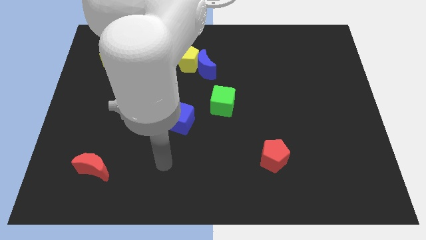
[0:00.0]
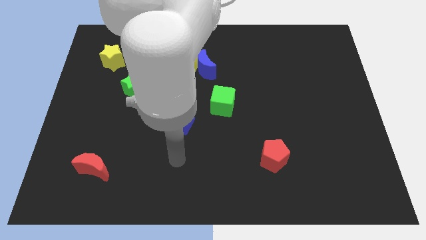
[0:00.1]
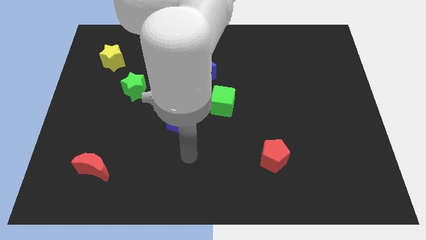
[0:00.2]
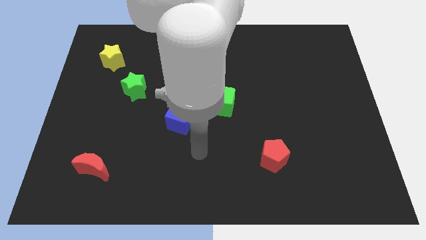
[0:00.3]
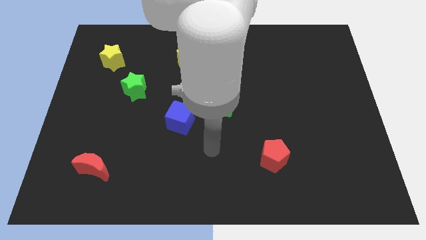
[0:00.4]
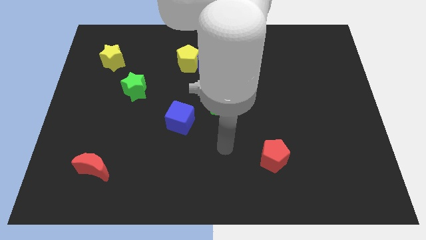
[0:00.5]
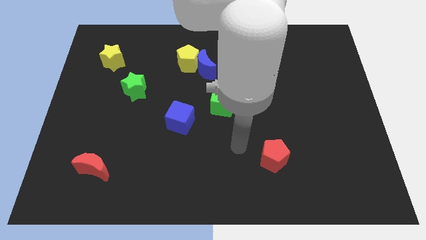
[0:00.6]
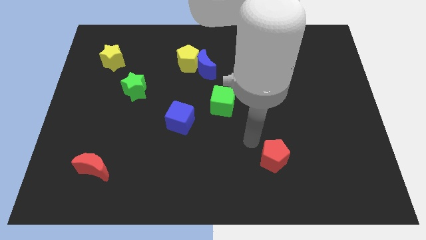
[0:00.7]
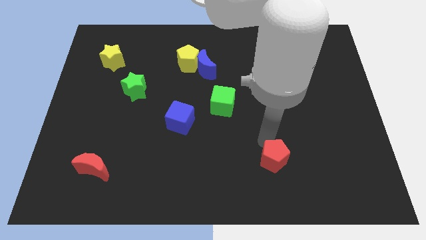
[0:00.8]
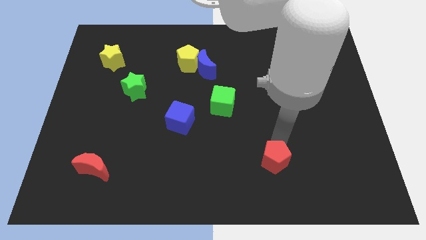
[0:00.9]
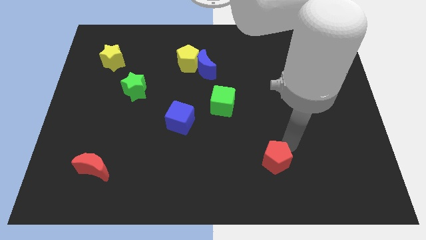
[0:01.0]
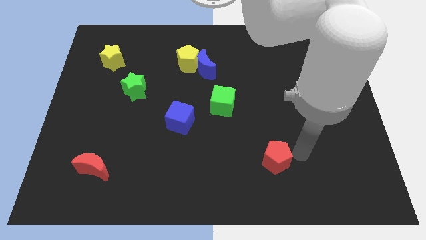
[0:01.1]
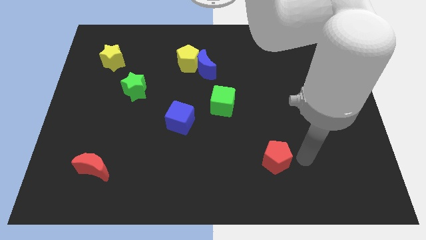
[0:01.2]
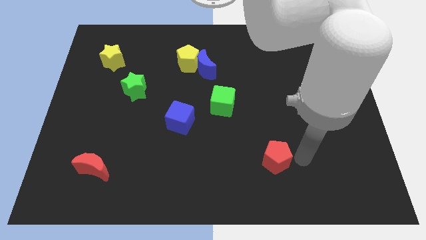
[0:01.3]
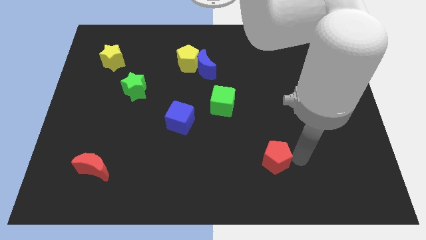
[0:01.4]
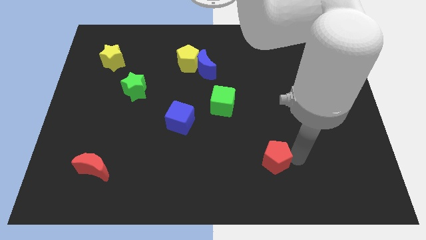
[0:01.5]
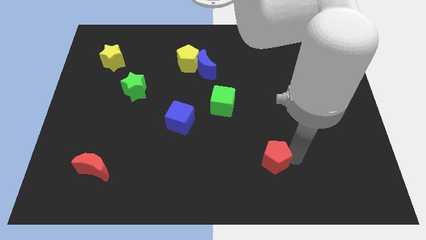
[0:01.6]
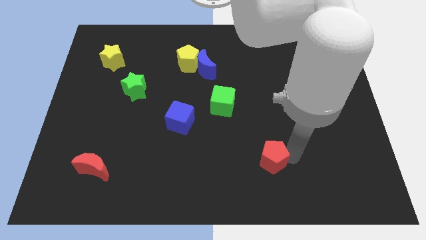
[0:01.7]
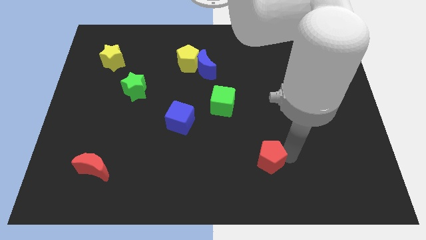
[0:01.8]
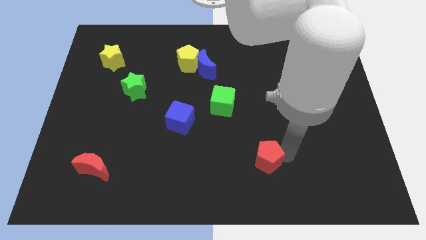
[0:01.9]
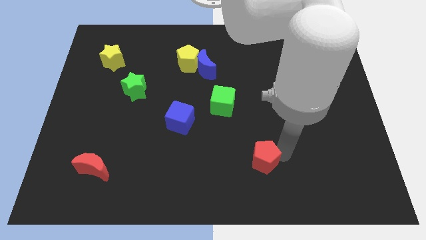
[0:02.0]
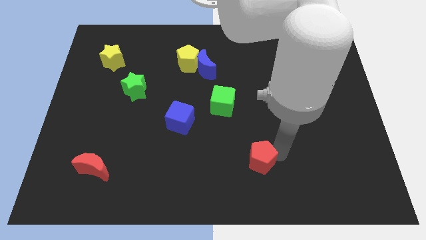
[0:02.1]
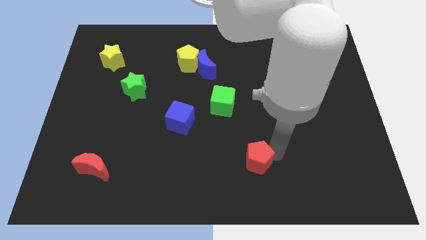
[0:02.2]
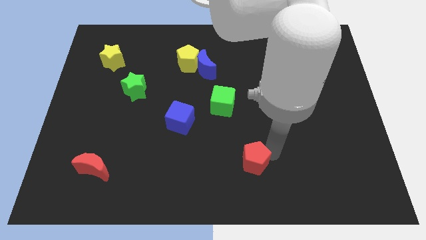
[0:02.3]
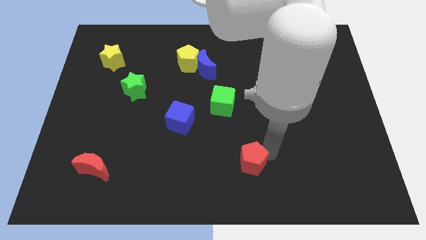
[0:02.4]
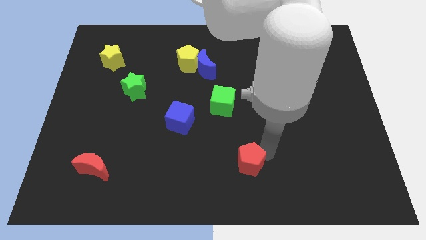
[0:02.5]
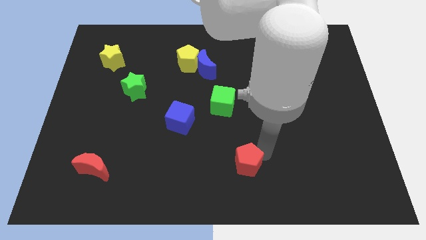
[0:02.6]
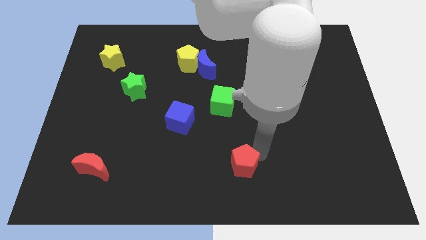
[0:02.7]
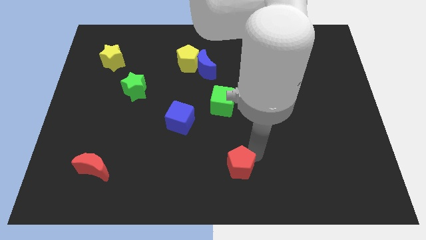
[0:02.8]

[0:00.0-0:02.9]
move the red pentagon to the left a little bit

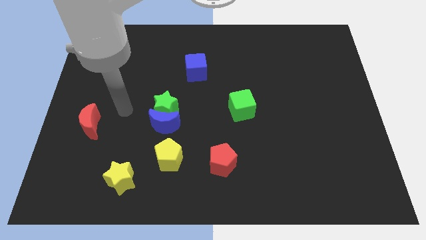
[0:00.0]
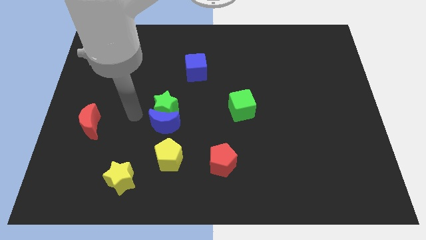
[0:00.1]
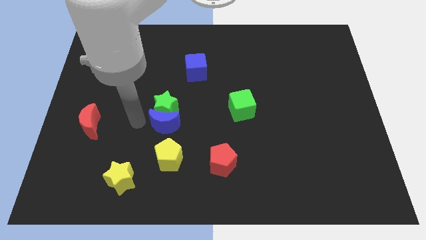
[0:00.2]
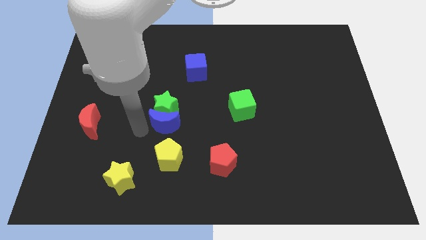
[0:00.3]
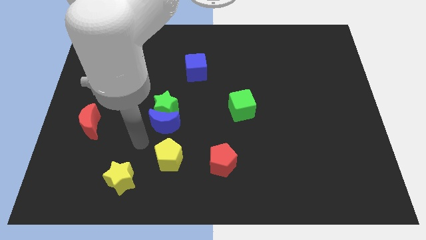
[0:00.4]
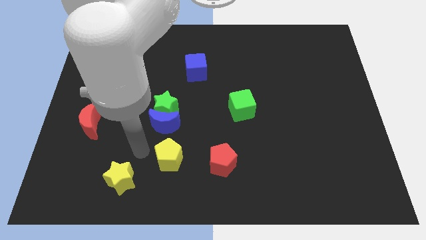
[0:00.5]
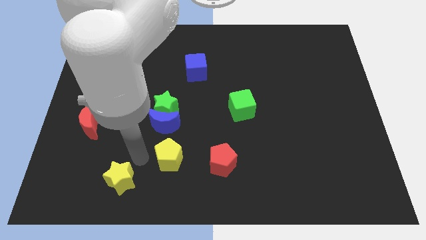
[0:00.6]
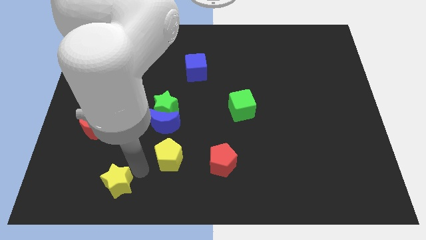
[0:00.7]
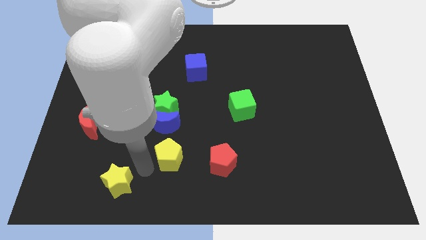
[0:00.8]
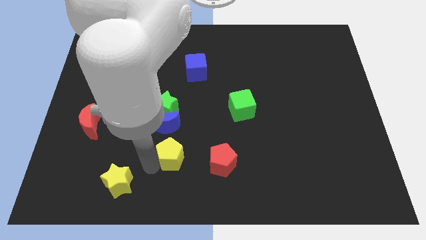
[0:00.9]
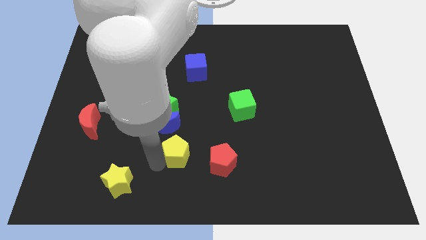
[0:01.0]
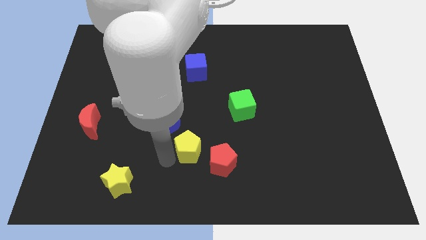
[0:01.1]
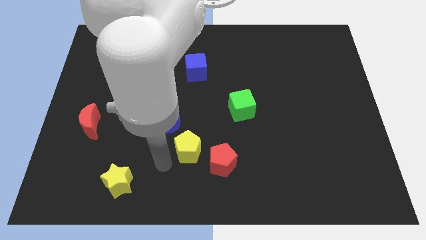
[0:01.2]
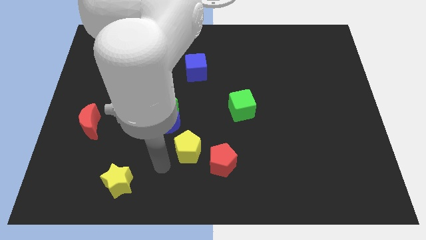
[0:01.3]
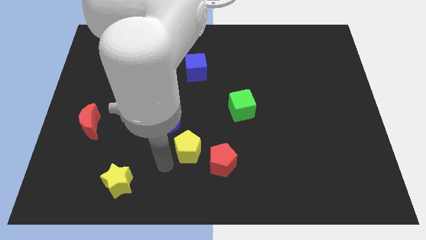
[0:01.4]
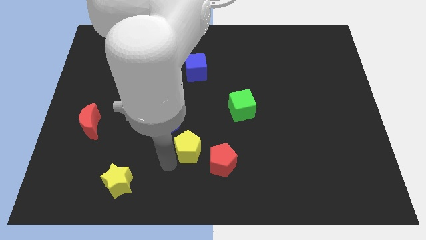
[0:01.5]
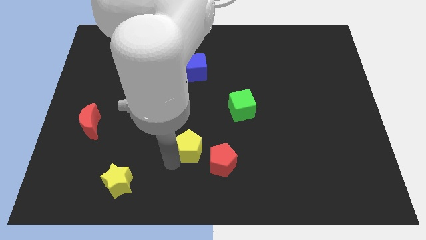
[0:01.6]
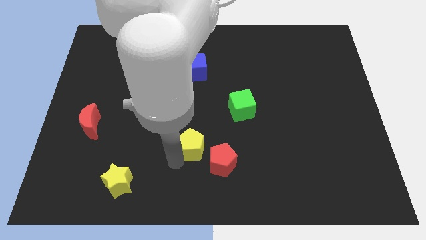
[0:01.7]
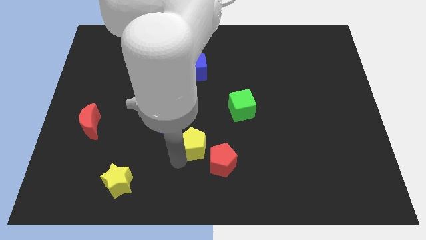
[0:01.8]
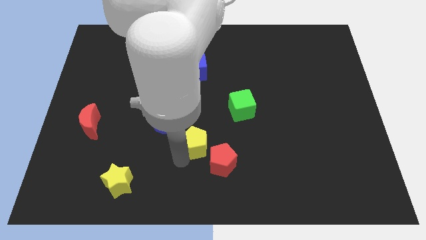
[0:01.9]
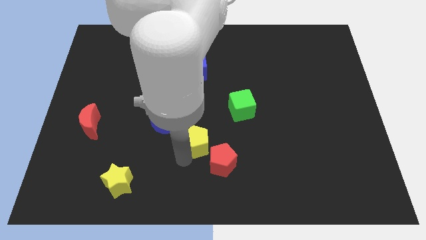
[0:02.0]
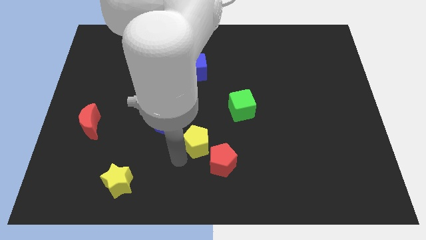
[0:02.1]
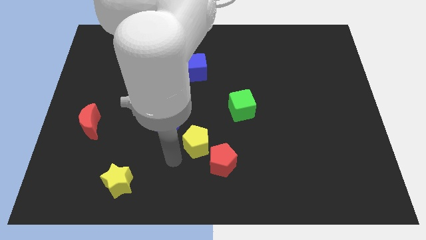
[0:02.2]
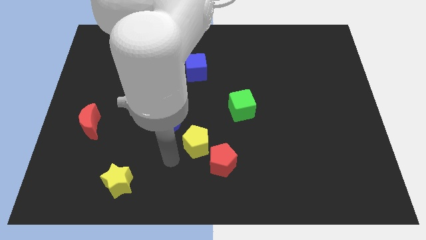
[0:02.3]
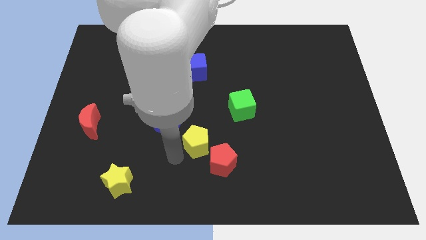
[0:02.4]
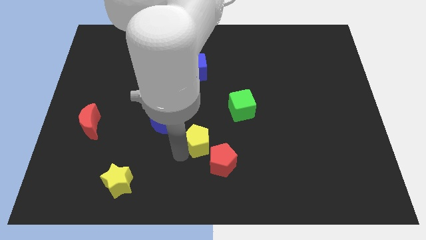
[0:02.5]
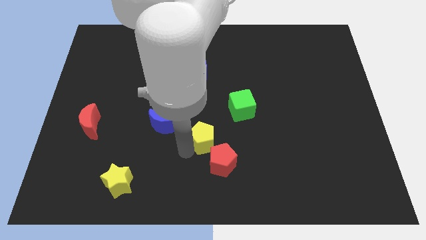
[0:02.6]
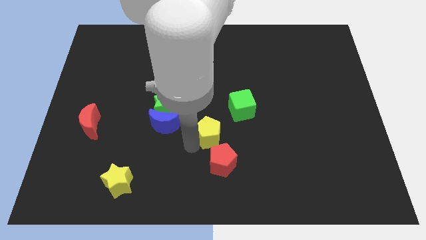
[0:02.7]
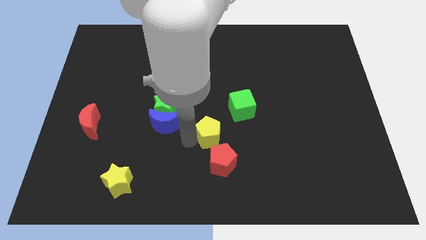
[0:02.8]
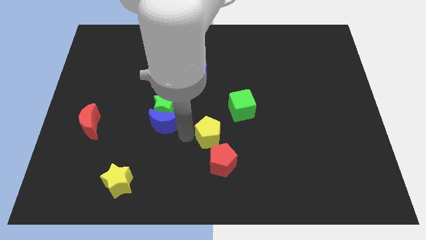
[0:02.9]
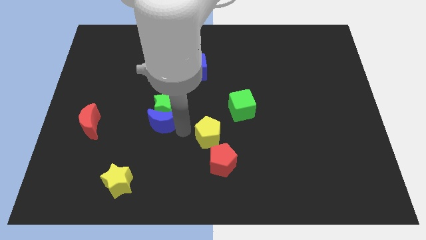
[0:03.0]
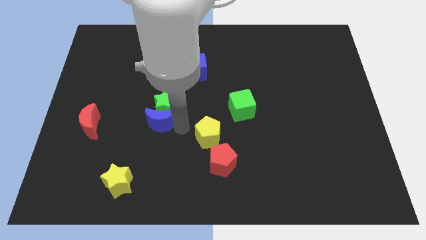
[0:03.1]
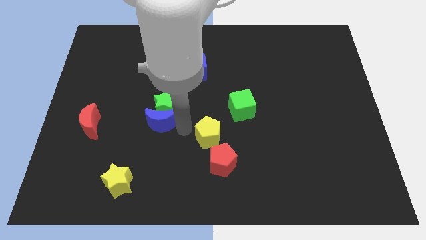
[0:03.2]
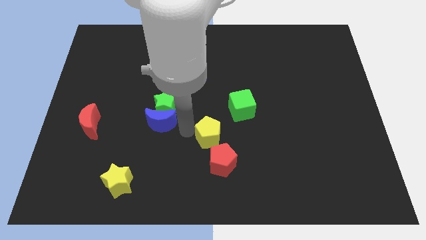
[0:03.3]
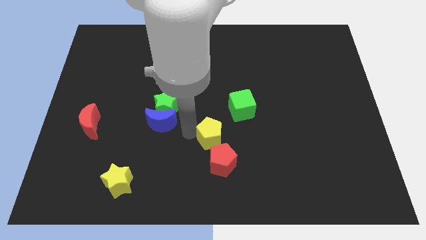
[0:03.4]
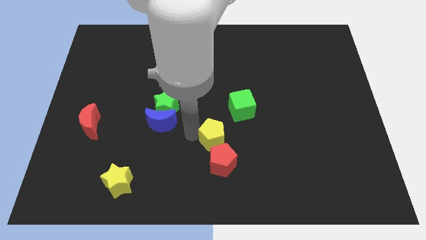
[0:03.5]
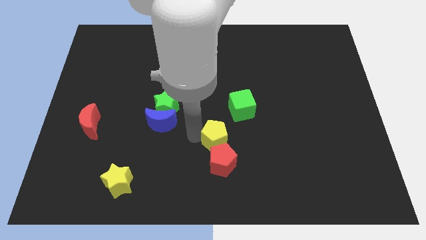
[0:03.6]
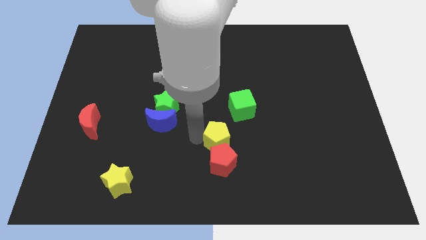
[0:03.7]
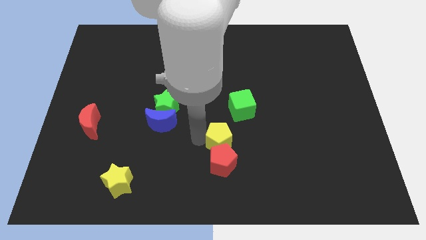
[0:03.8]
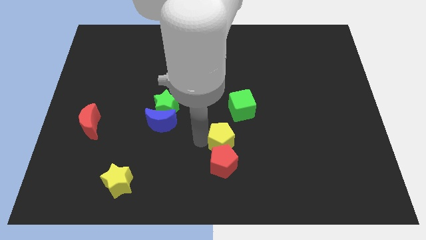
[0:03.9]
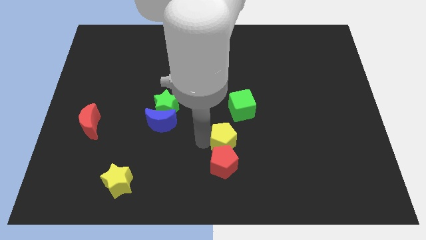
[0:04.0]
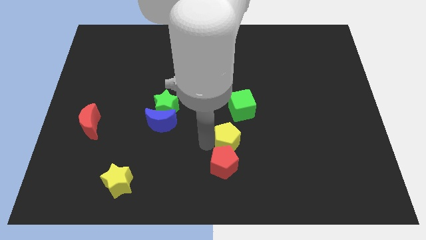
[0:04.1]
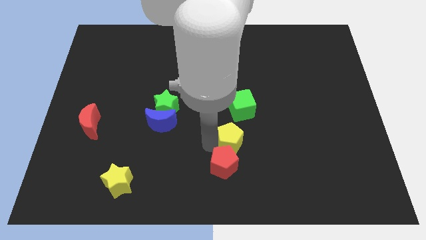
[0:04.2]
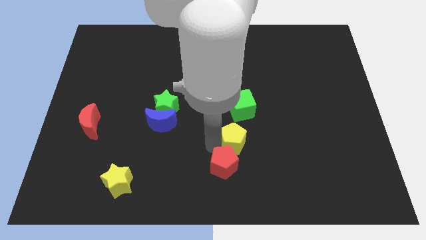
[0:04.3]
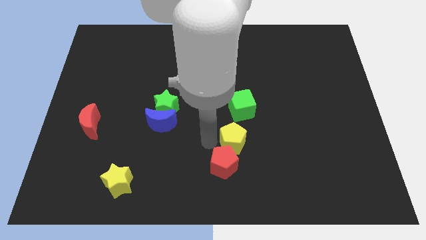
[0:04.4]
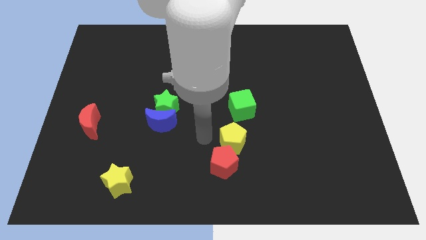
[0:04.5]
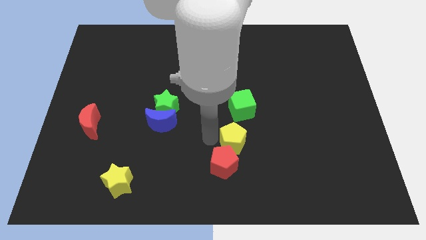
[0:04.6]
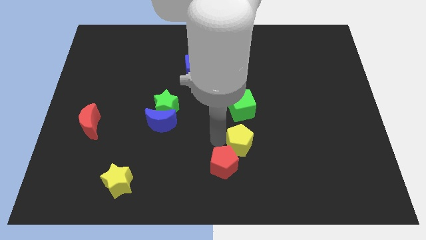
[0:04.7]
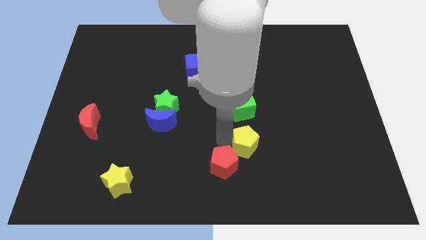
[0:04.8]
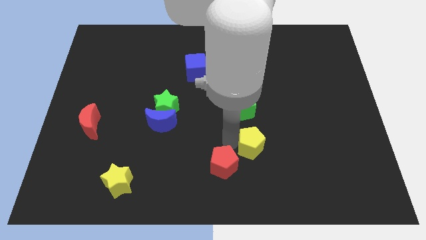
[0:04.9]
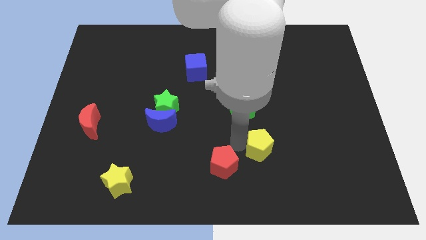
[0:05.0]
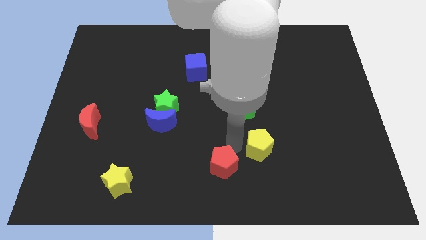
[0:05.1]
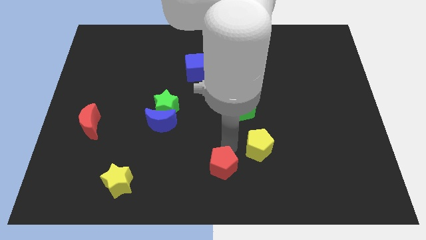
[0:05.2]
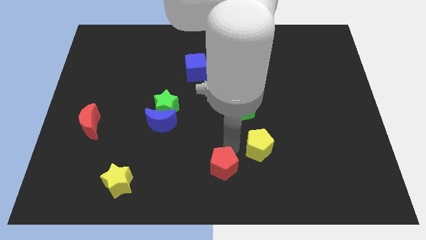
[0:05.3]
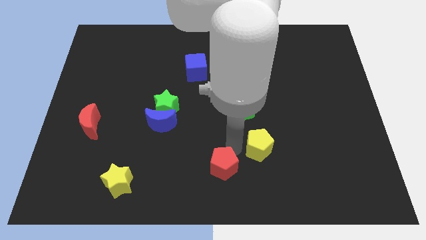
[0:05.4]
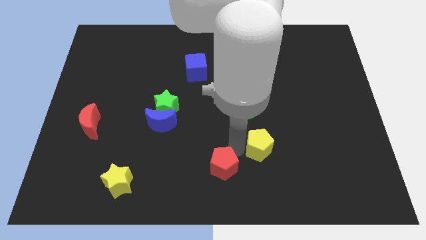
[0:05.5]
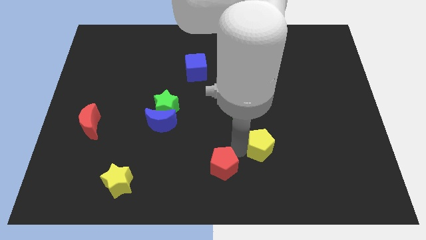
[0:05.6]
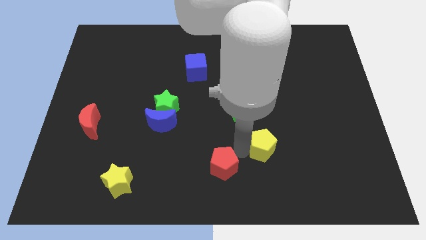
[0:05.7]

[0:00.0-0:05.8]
move the yellow pentagon right
